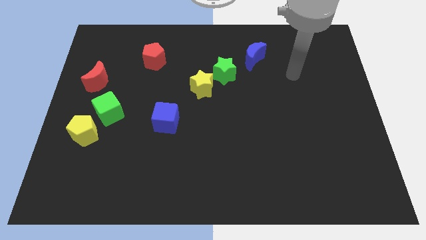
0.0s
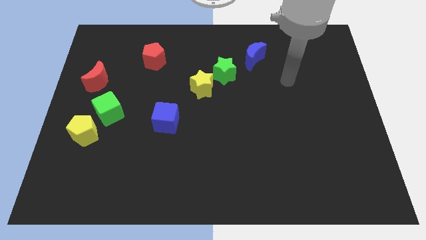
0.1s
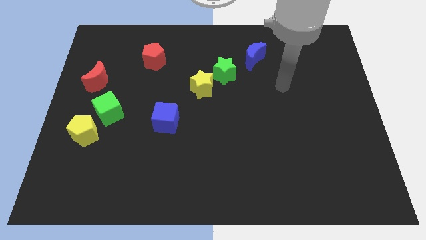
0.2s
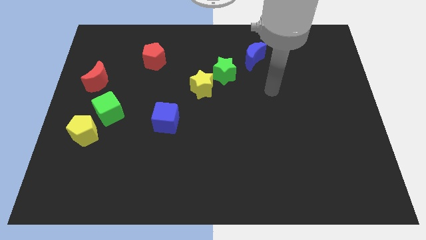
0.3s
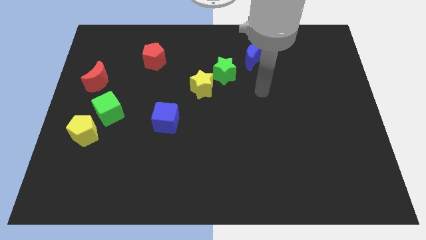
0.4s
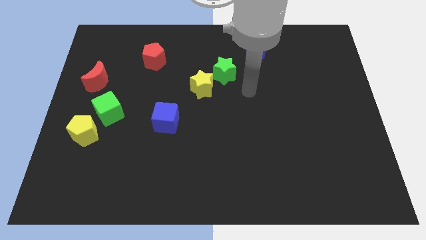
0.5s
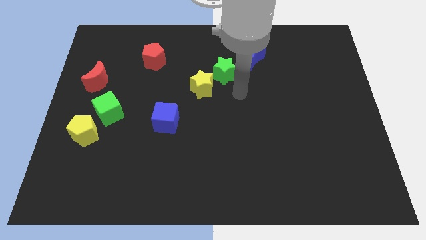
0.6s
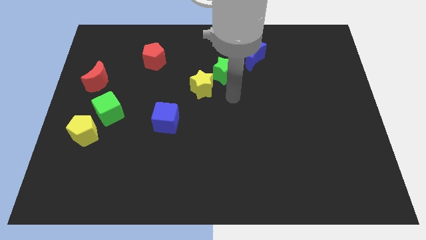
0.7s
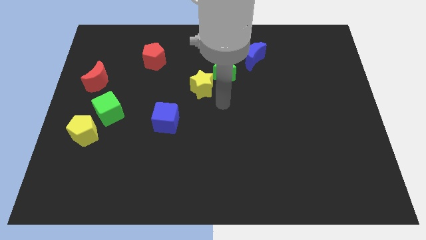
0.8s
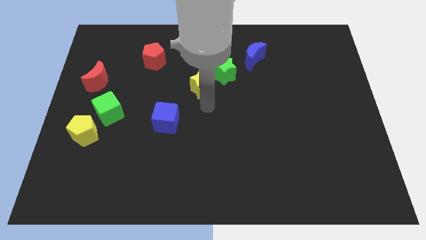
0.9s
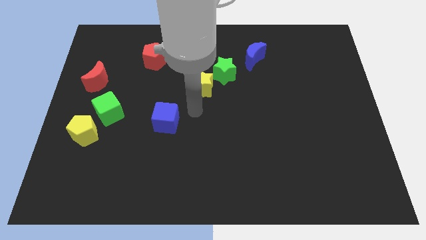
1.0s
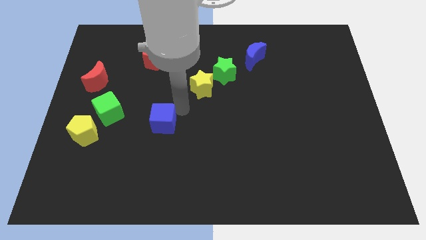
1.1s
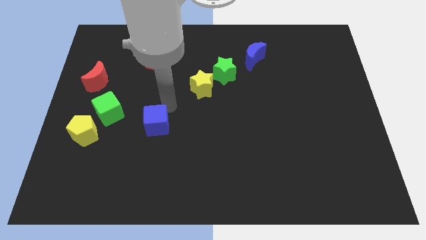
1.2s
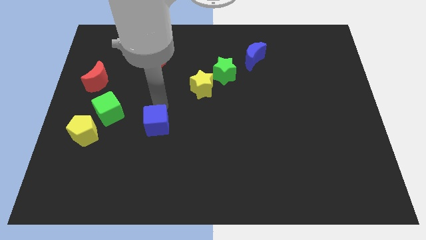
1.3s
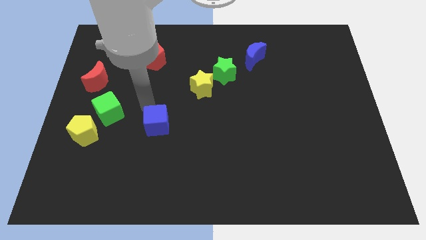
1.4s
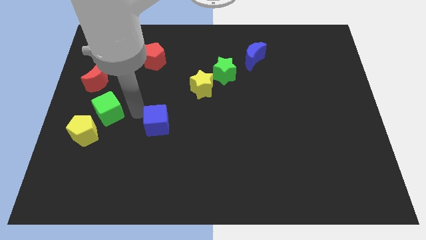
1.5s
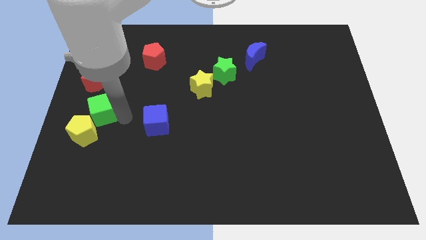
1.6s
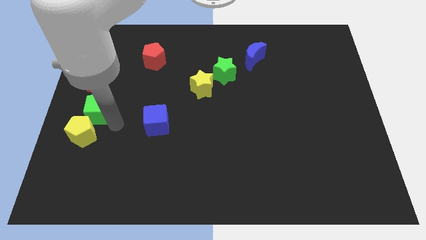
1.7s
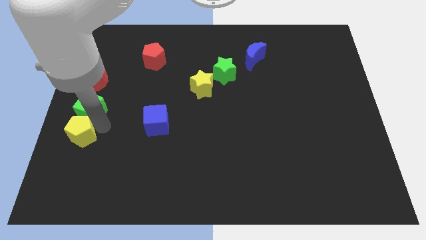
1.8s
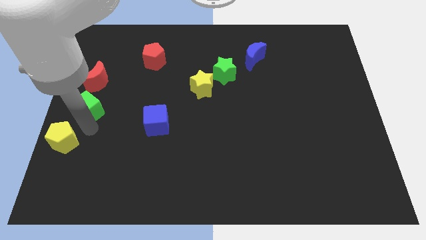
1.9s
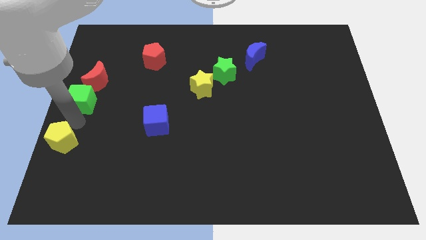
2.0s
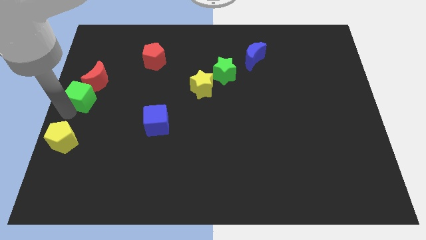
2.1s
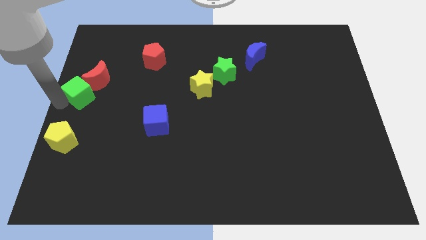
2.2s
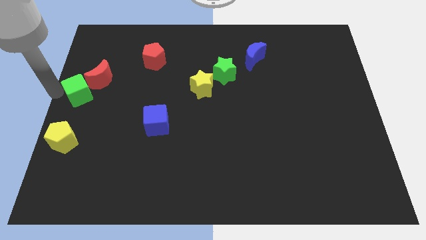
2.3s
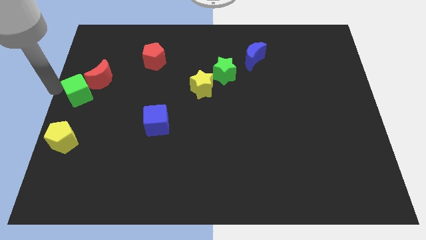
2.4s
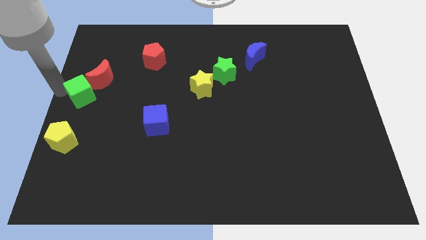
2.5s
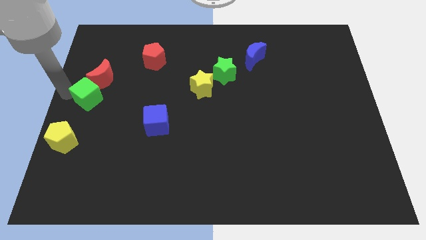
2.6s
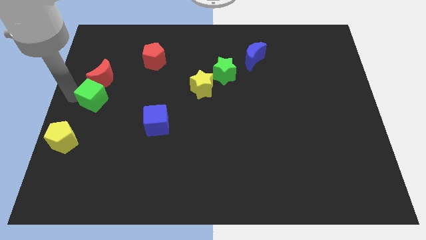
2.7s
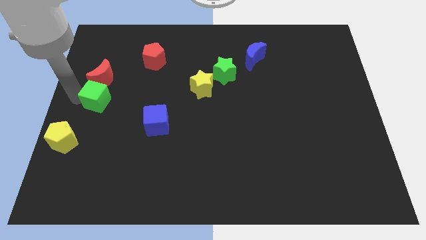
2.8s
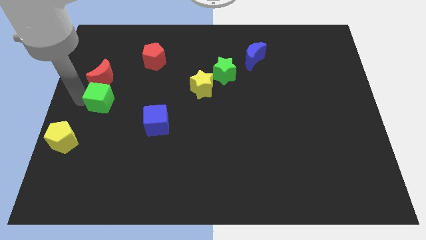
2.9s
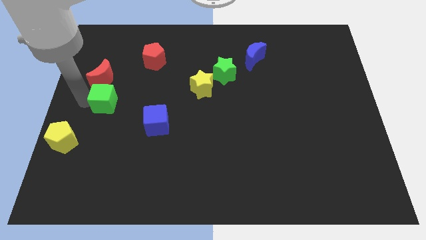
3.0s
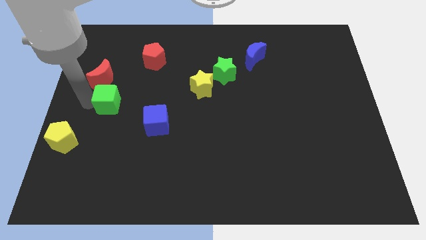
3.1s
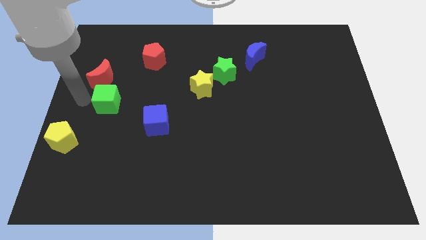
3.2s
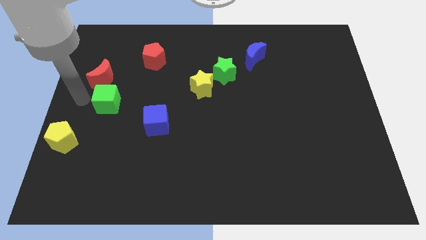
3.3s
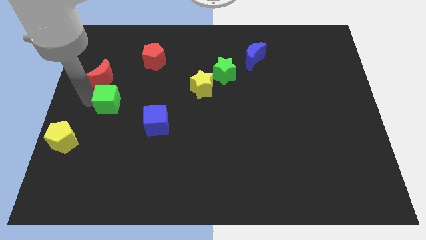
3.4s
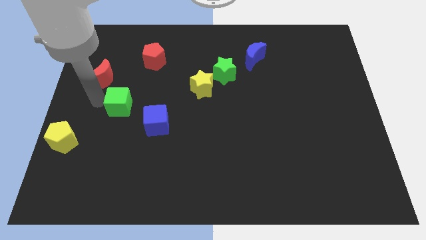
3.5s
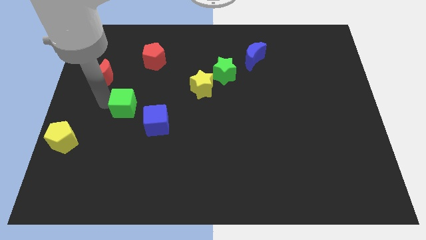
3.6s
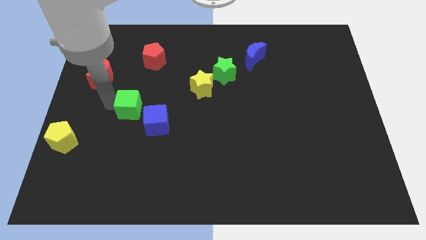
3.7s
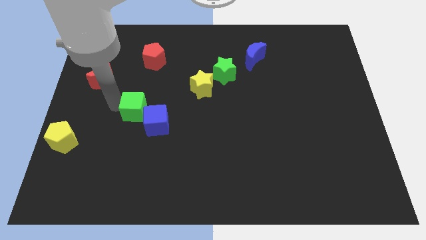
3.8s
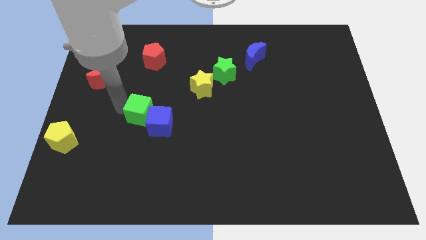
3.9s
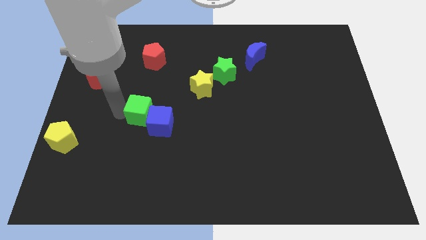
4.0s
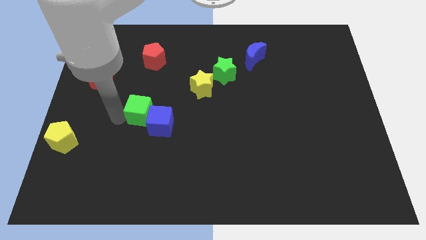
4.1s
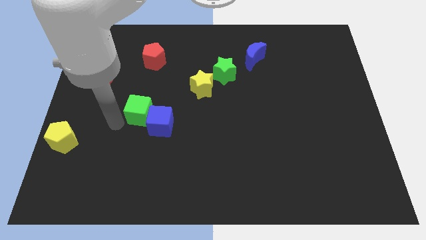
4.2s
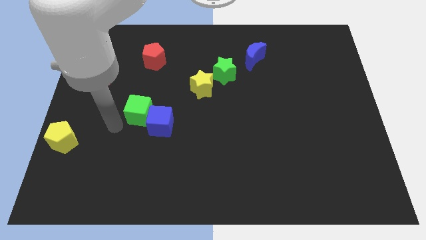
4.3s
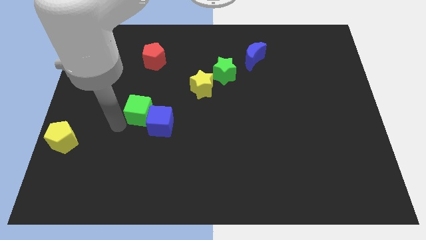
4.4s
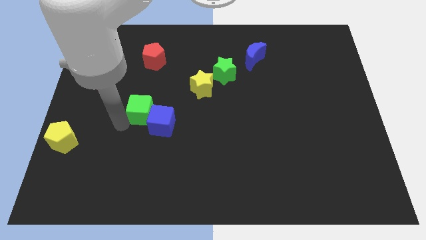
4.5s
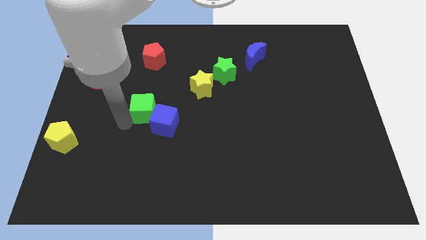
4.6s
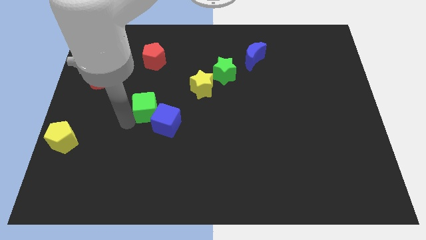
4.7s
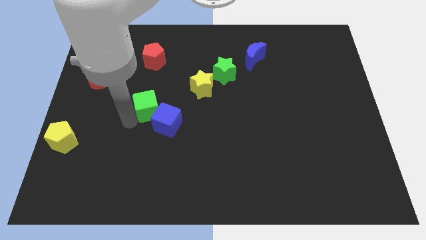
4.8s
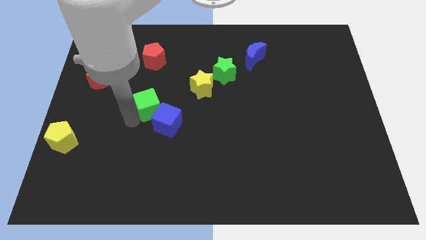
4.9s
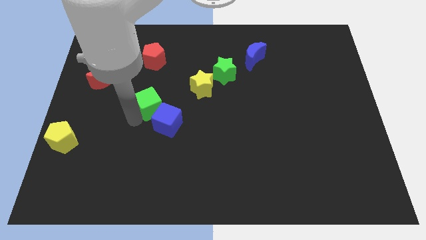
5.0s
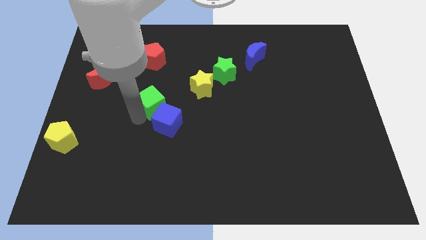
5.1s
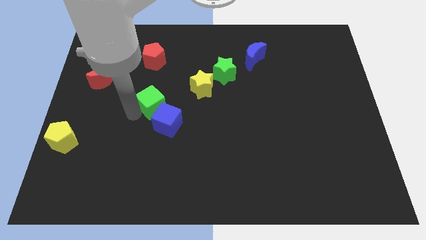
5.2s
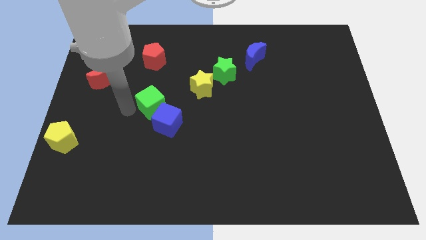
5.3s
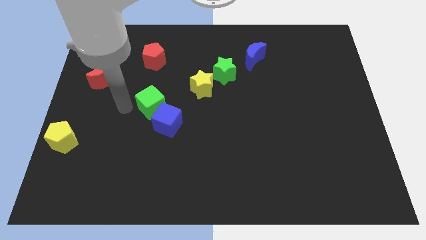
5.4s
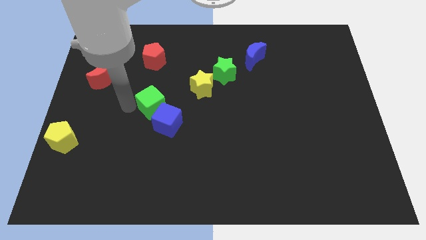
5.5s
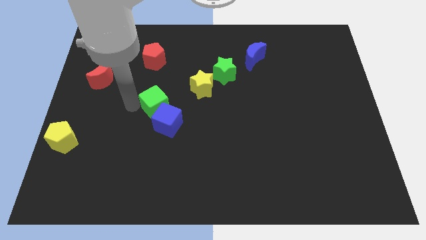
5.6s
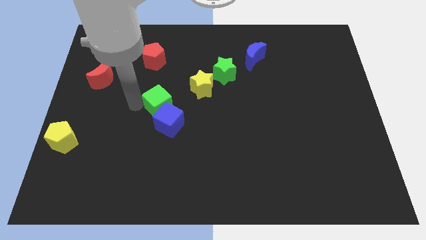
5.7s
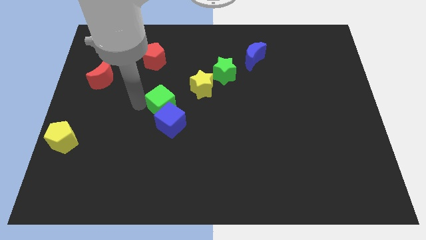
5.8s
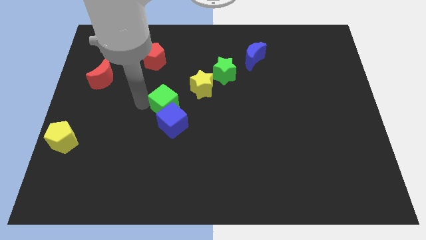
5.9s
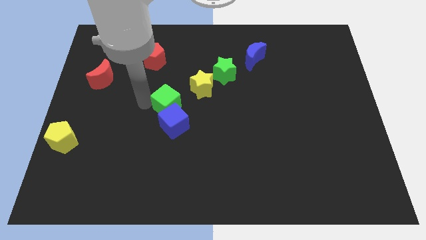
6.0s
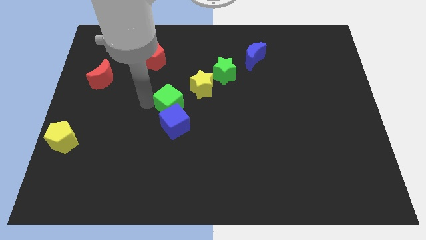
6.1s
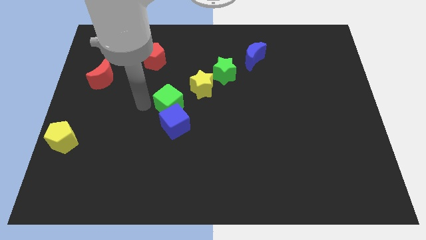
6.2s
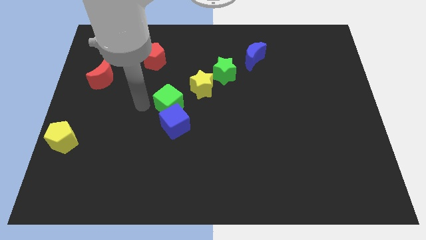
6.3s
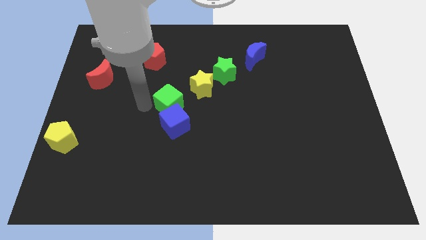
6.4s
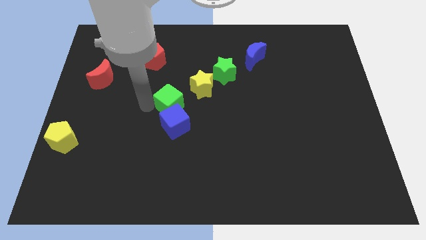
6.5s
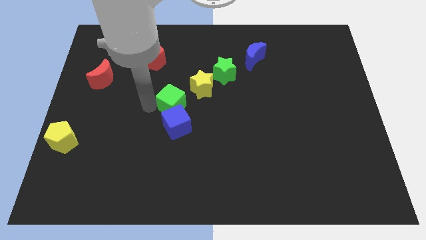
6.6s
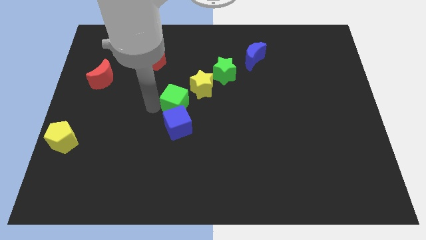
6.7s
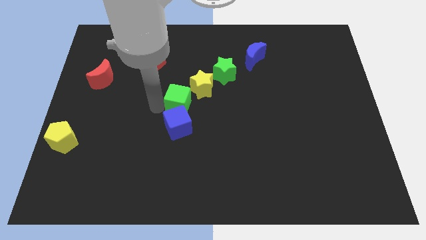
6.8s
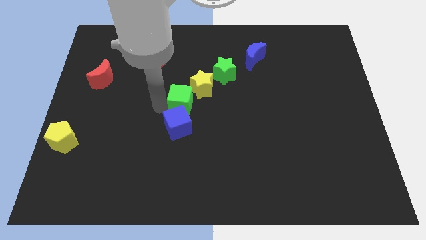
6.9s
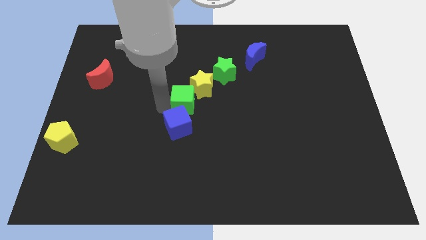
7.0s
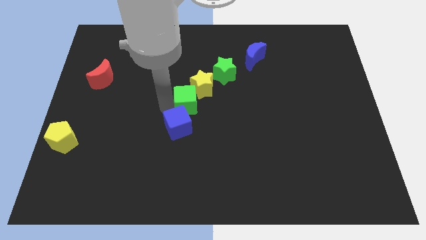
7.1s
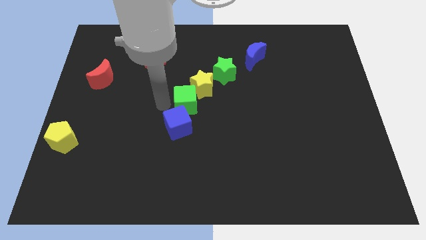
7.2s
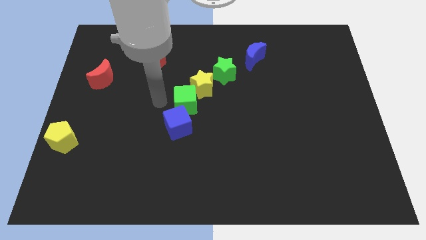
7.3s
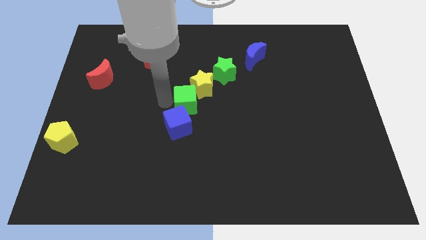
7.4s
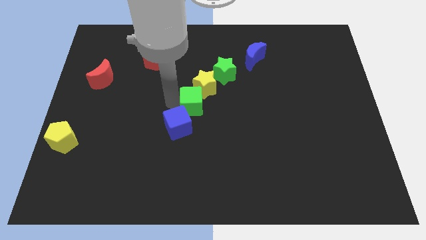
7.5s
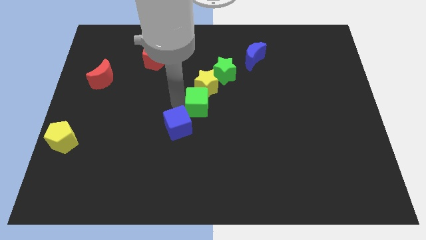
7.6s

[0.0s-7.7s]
push the green cube to the right

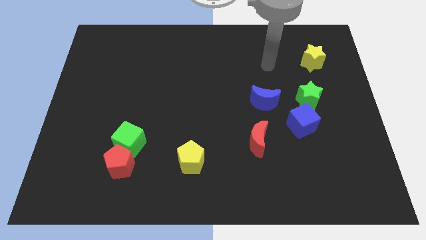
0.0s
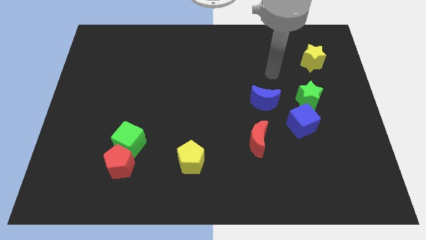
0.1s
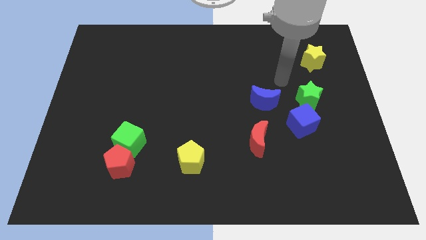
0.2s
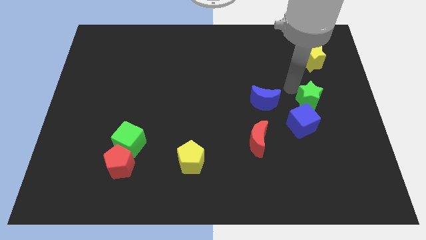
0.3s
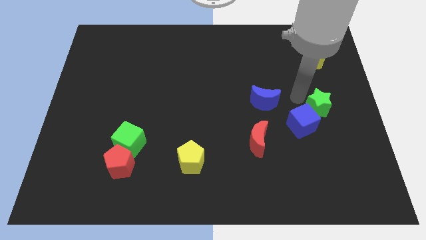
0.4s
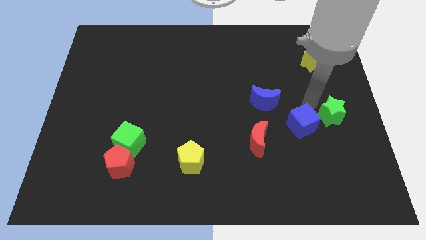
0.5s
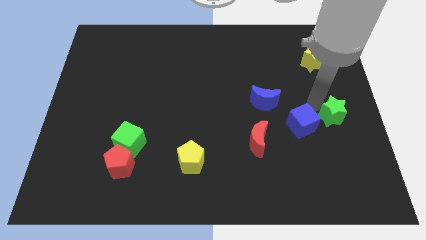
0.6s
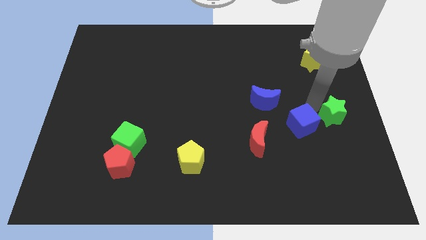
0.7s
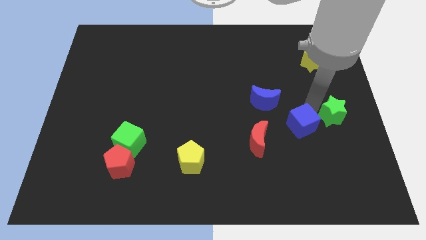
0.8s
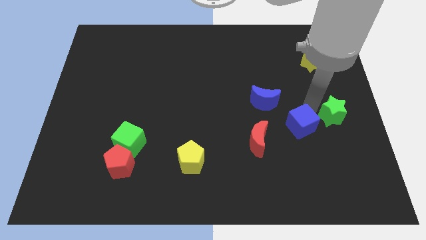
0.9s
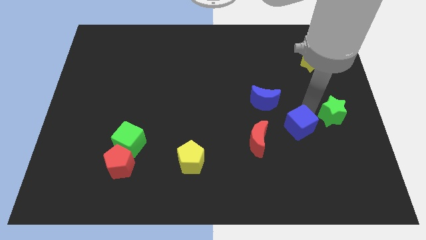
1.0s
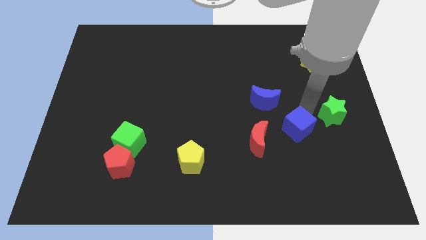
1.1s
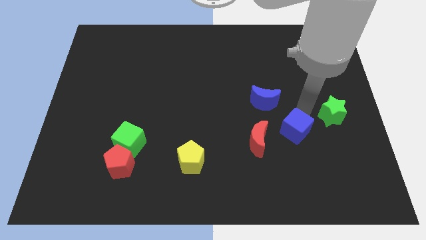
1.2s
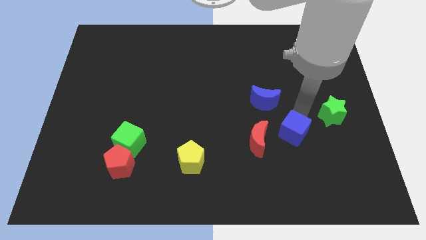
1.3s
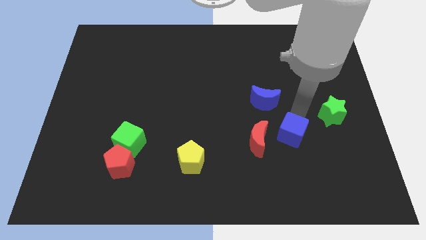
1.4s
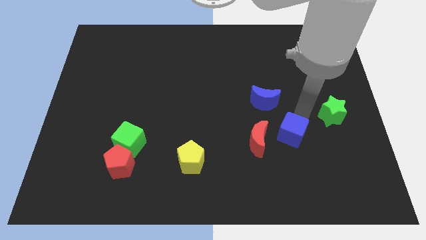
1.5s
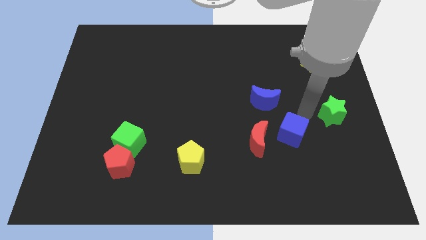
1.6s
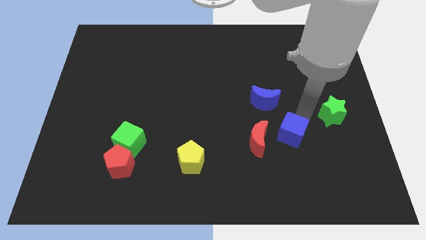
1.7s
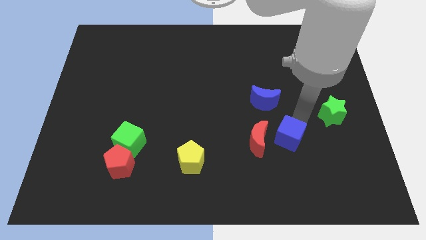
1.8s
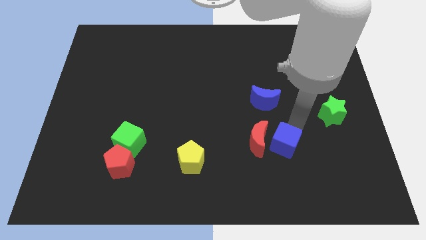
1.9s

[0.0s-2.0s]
push the blue cube downwards and then to the left a bit
